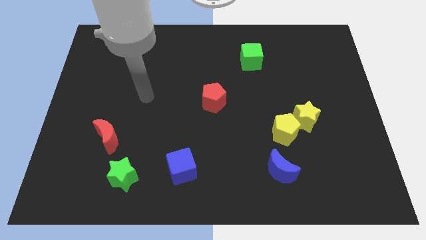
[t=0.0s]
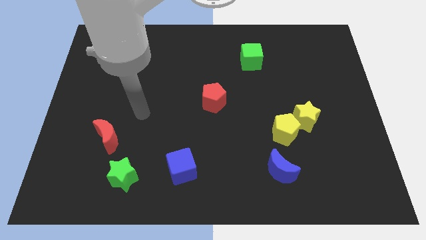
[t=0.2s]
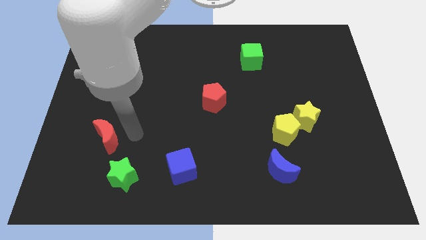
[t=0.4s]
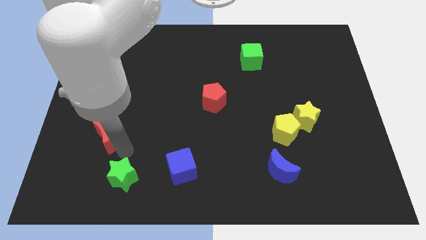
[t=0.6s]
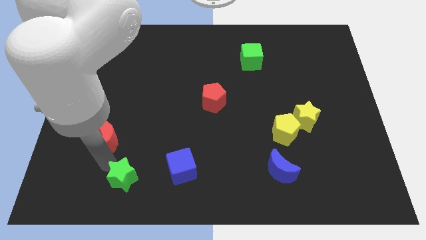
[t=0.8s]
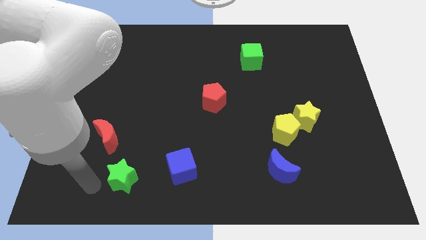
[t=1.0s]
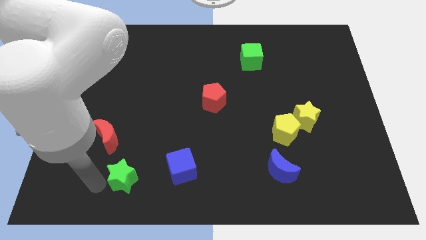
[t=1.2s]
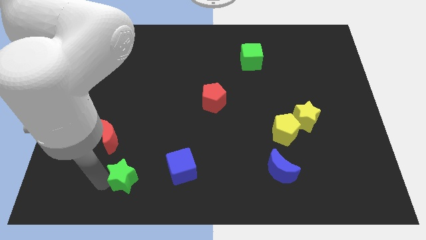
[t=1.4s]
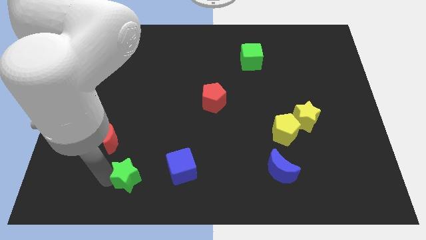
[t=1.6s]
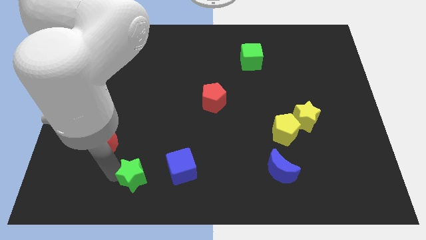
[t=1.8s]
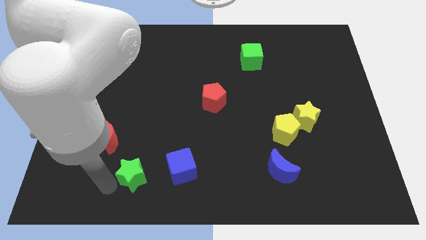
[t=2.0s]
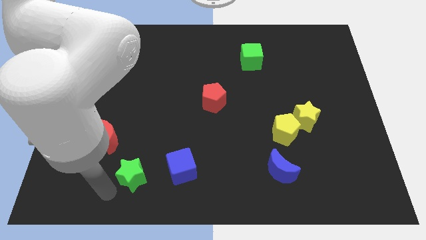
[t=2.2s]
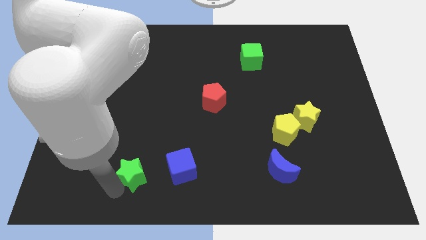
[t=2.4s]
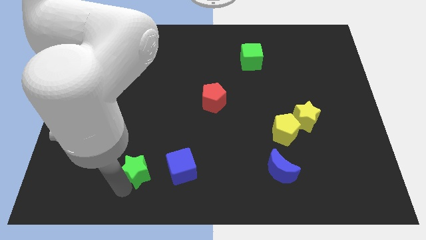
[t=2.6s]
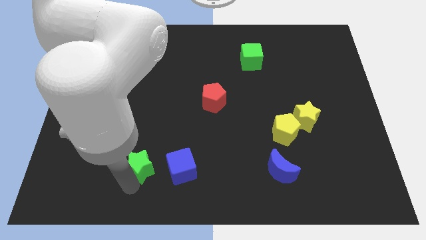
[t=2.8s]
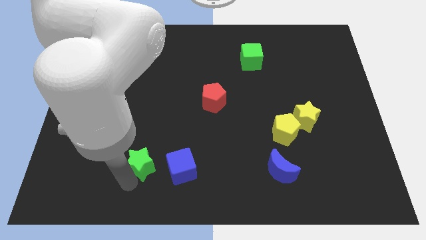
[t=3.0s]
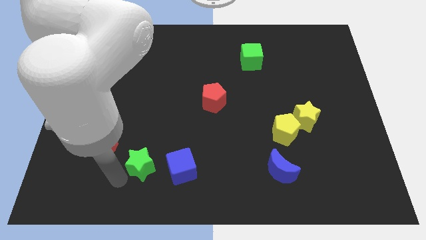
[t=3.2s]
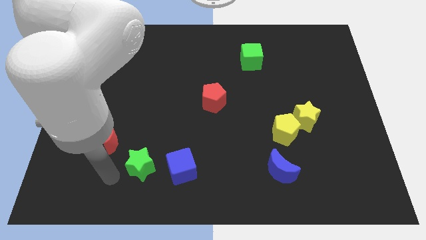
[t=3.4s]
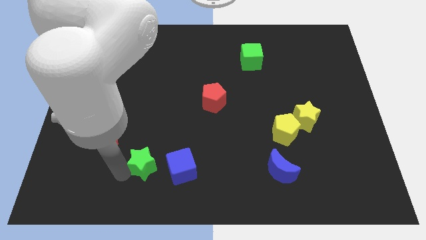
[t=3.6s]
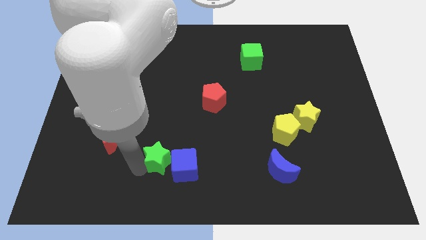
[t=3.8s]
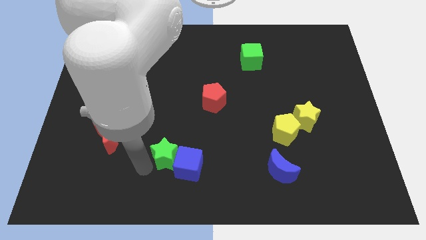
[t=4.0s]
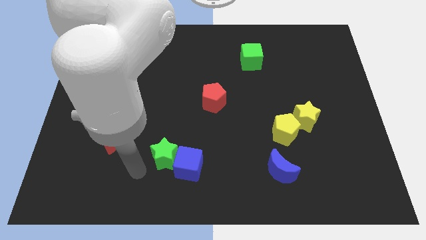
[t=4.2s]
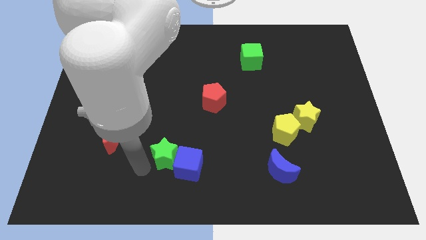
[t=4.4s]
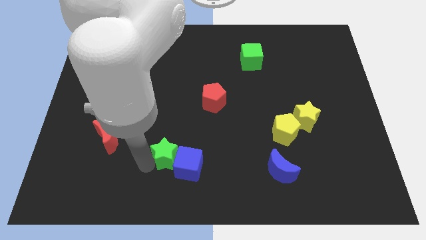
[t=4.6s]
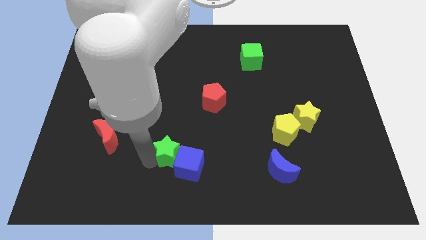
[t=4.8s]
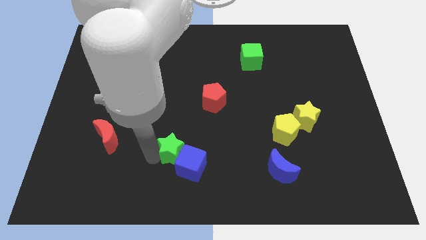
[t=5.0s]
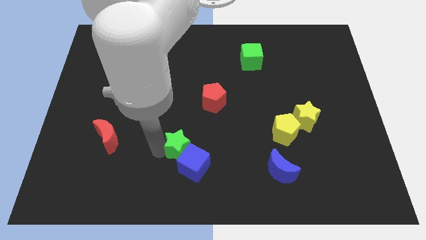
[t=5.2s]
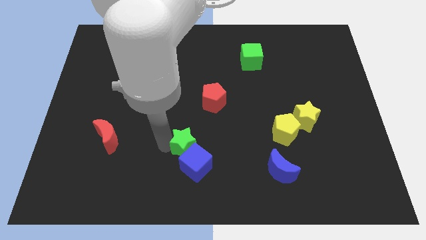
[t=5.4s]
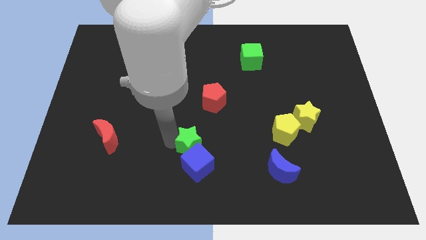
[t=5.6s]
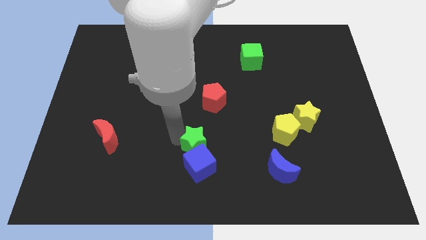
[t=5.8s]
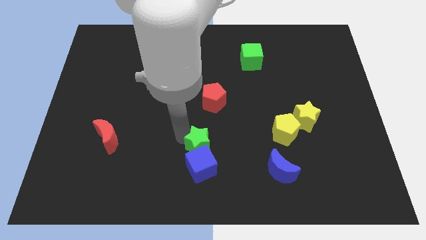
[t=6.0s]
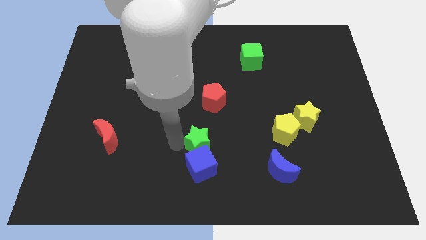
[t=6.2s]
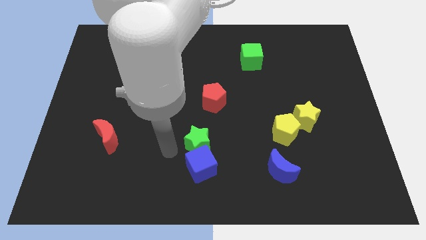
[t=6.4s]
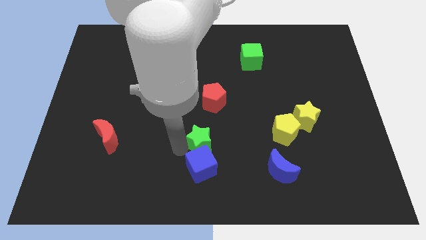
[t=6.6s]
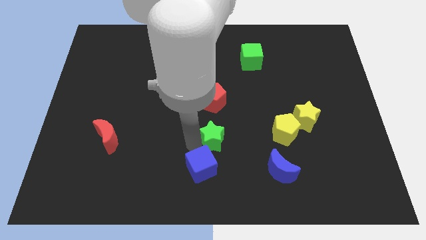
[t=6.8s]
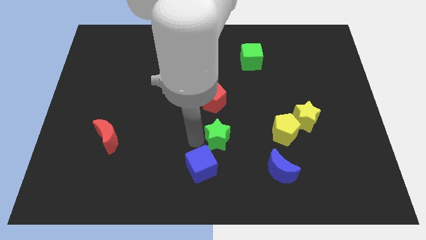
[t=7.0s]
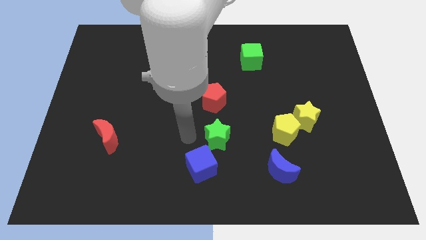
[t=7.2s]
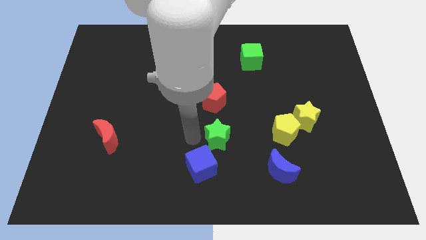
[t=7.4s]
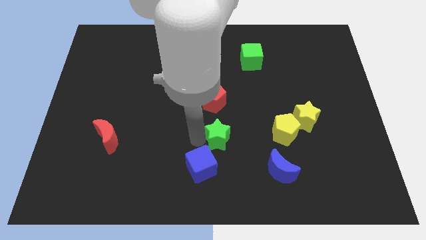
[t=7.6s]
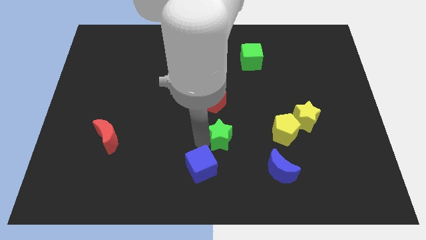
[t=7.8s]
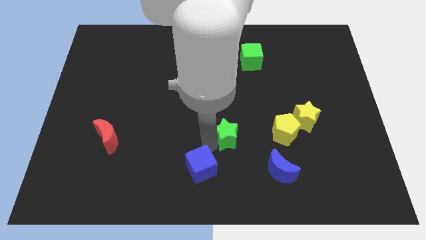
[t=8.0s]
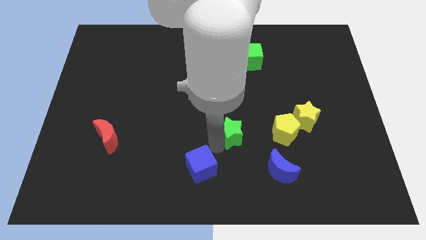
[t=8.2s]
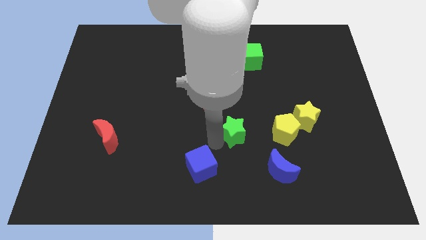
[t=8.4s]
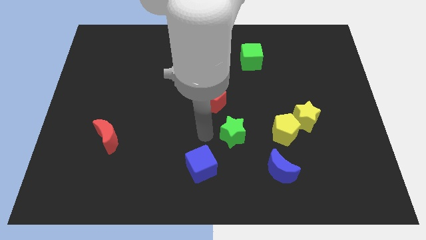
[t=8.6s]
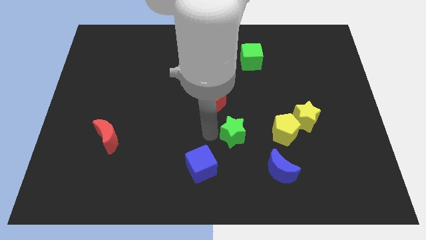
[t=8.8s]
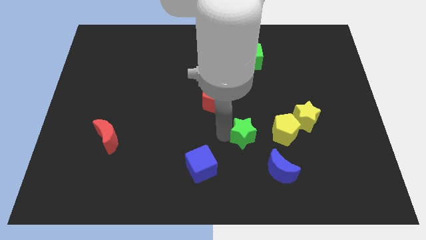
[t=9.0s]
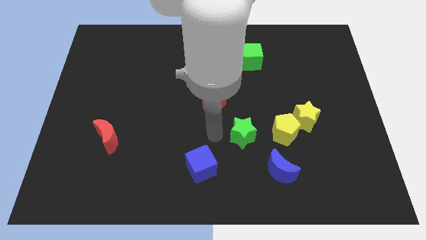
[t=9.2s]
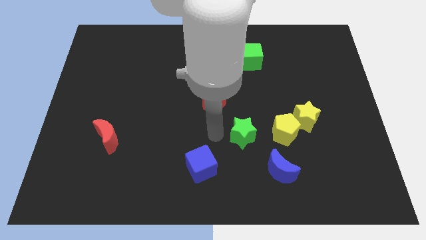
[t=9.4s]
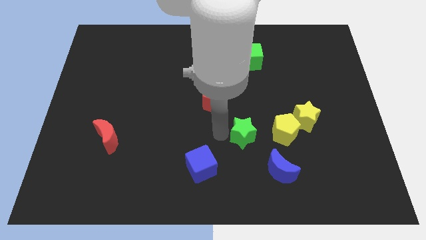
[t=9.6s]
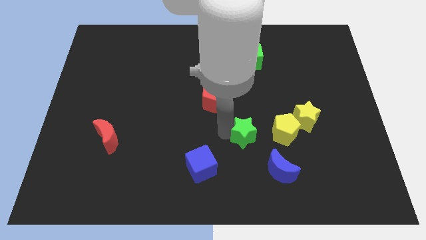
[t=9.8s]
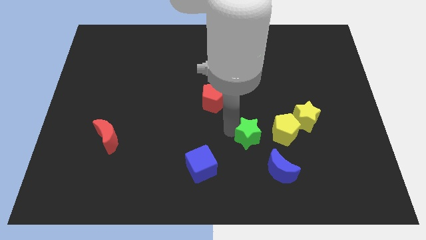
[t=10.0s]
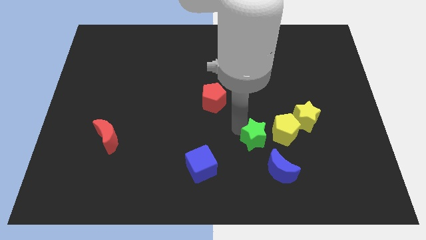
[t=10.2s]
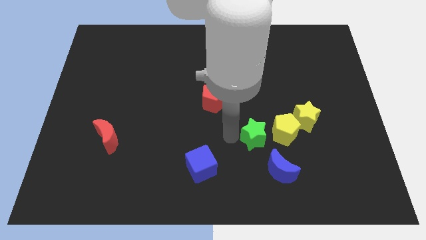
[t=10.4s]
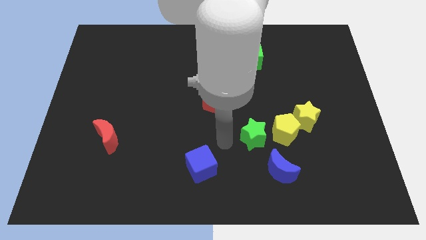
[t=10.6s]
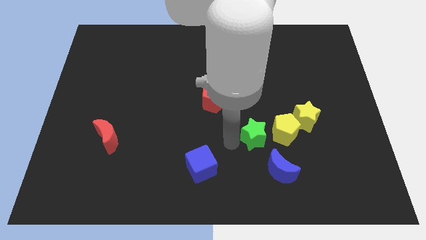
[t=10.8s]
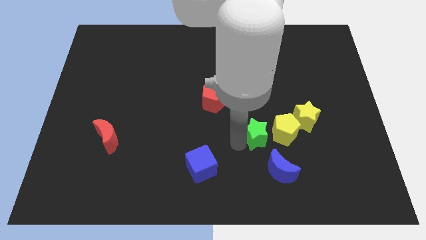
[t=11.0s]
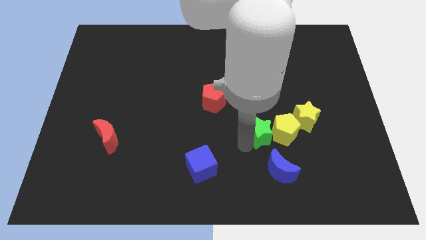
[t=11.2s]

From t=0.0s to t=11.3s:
put the green star close to the yellow pentagon

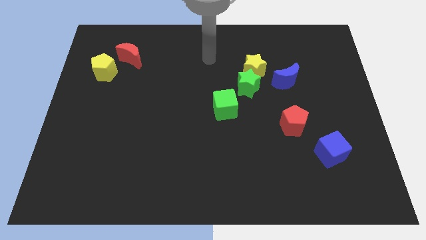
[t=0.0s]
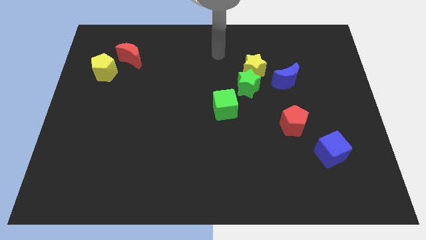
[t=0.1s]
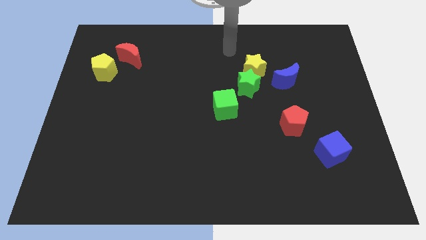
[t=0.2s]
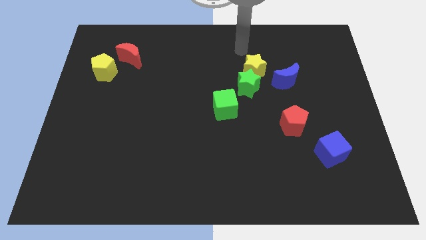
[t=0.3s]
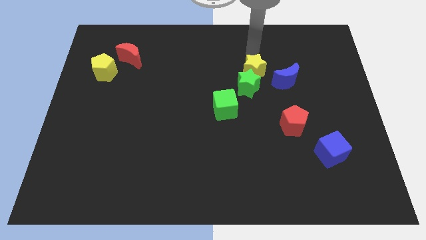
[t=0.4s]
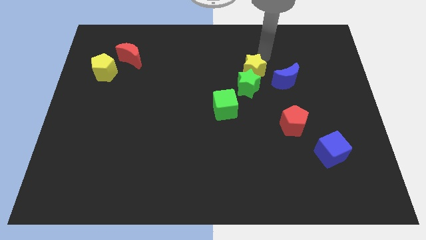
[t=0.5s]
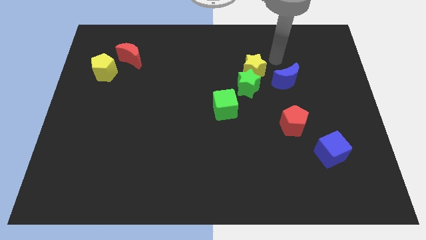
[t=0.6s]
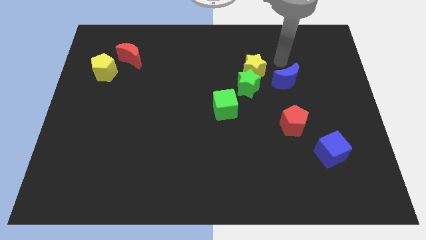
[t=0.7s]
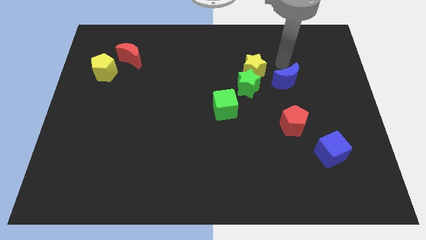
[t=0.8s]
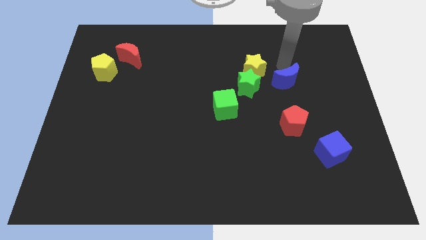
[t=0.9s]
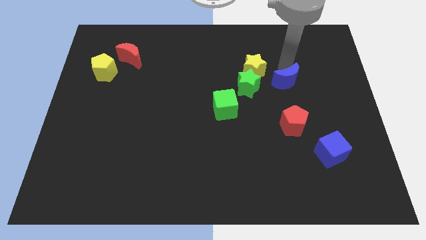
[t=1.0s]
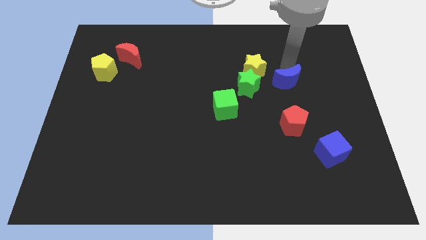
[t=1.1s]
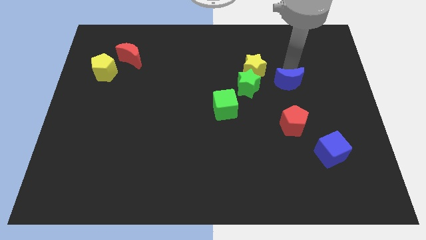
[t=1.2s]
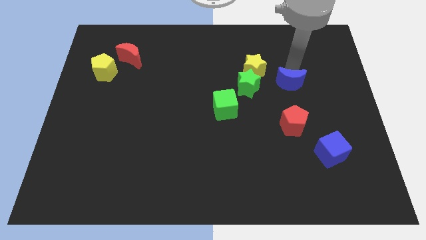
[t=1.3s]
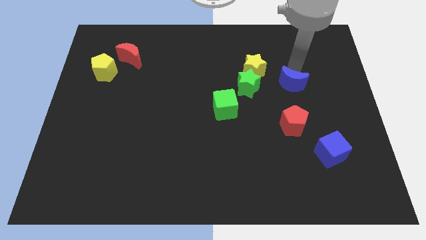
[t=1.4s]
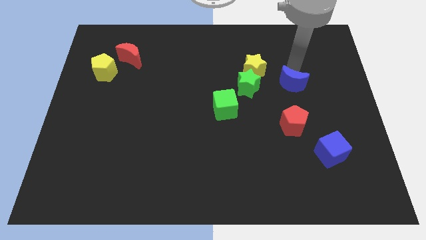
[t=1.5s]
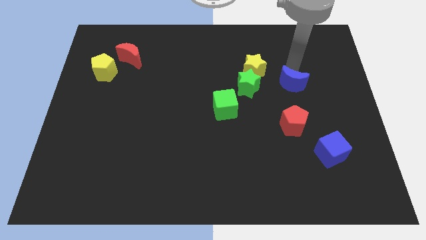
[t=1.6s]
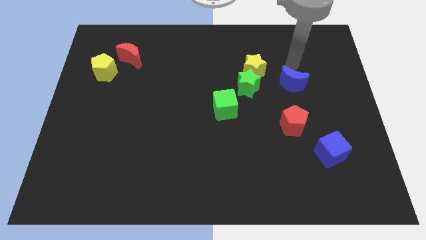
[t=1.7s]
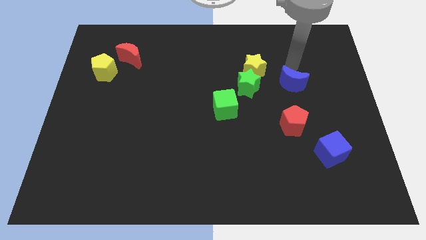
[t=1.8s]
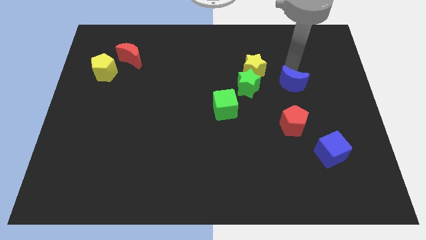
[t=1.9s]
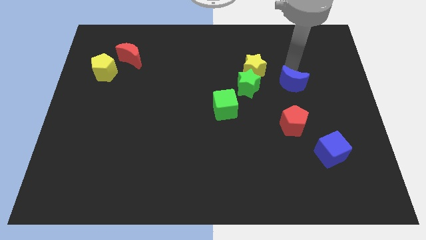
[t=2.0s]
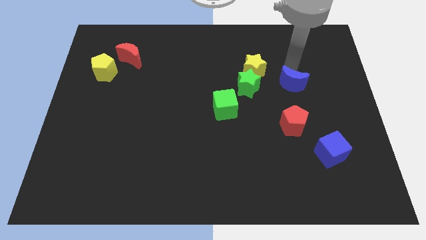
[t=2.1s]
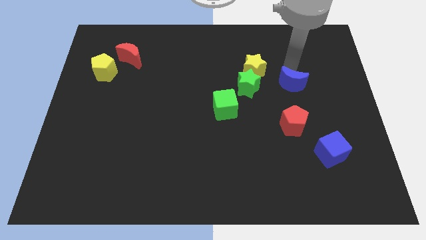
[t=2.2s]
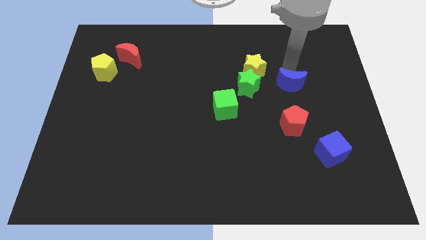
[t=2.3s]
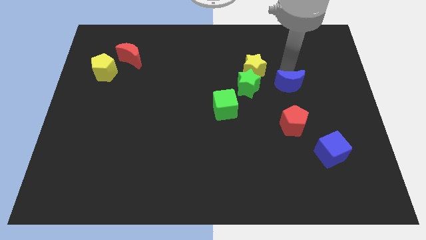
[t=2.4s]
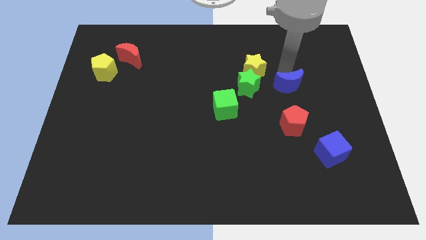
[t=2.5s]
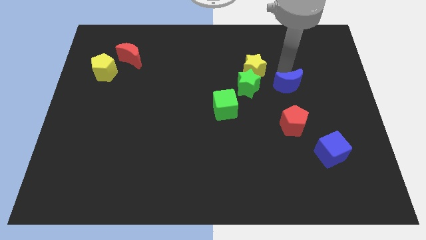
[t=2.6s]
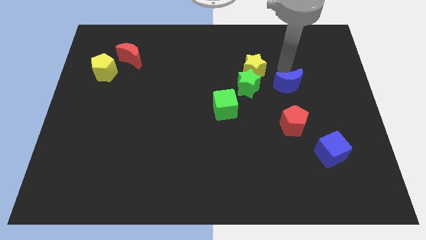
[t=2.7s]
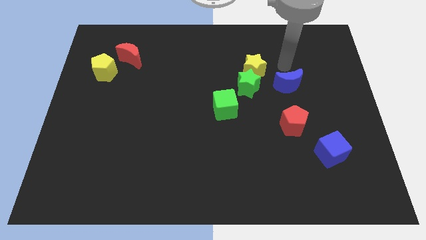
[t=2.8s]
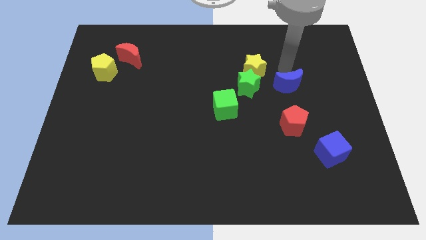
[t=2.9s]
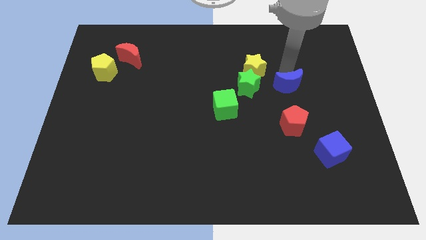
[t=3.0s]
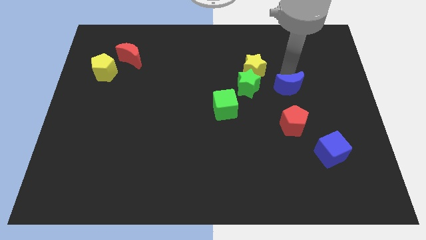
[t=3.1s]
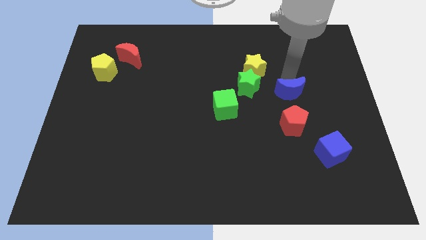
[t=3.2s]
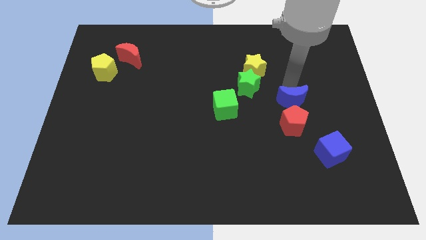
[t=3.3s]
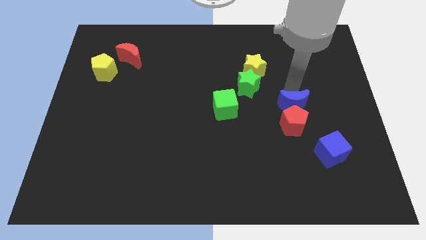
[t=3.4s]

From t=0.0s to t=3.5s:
move the blue moon towards the red pentagon
